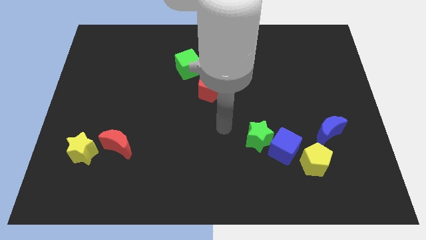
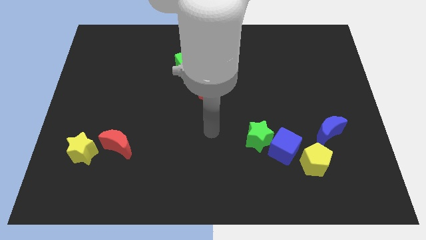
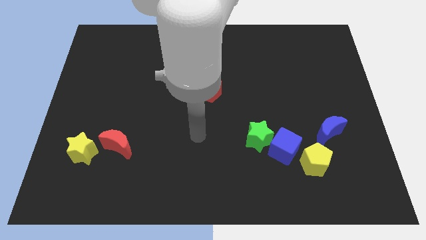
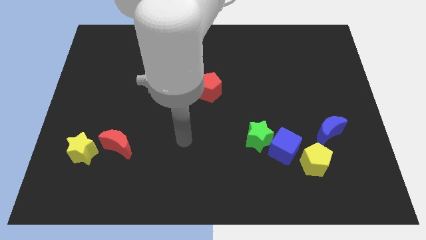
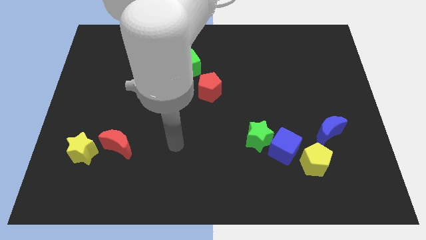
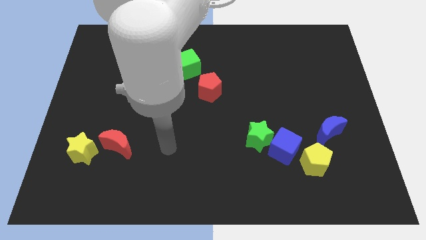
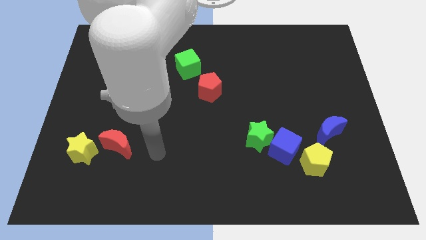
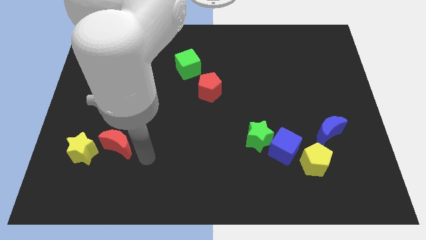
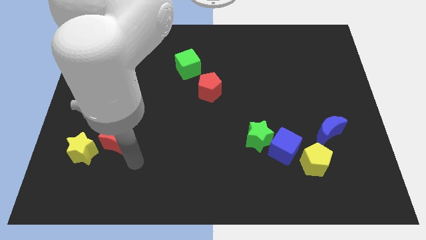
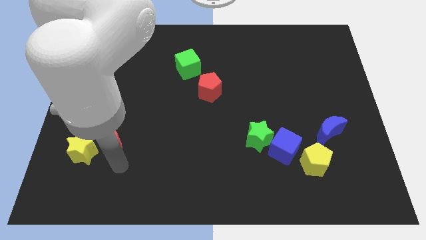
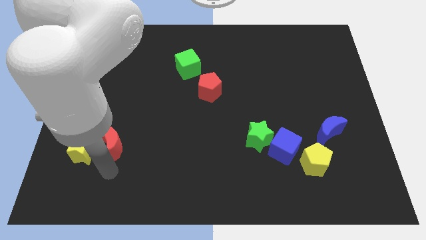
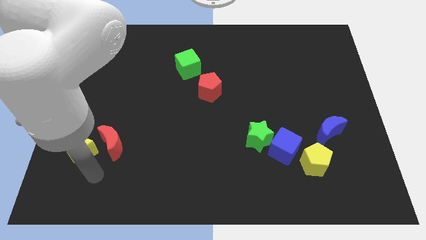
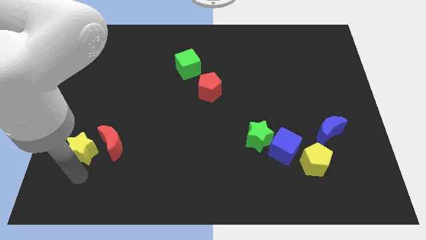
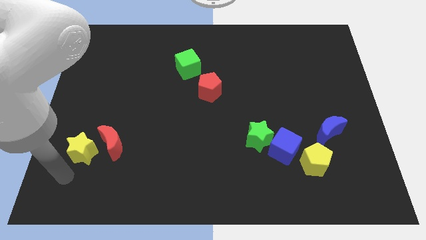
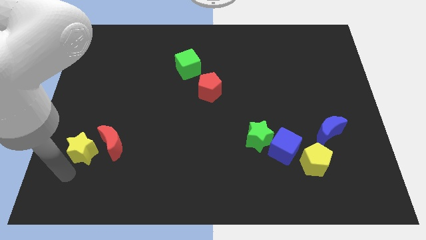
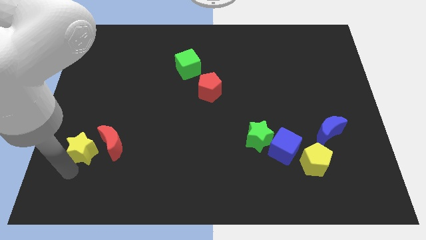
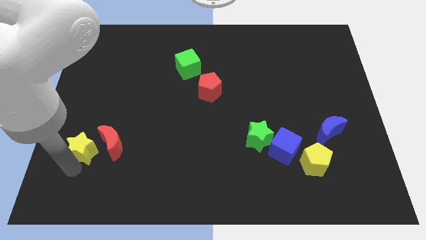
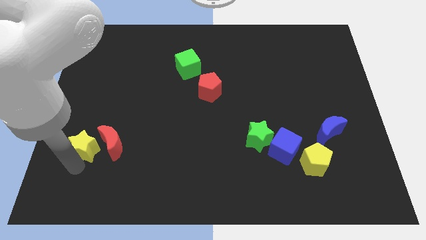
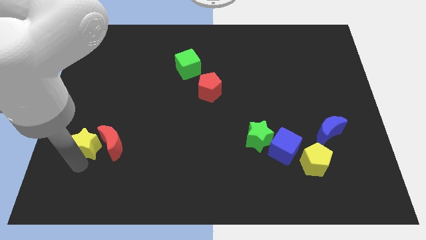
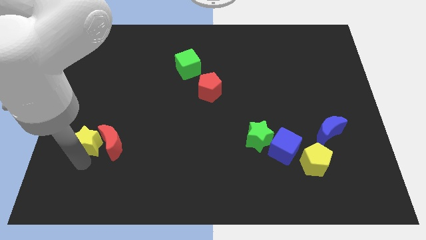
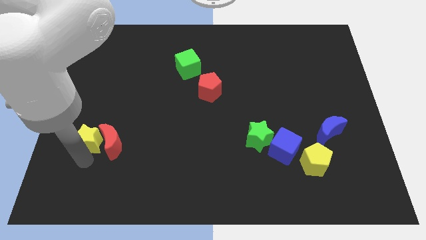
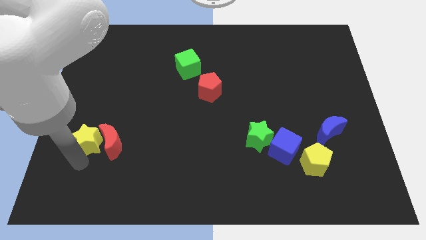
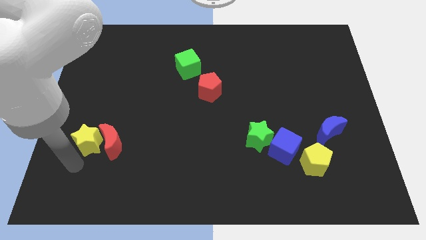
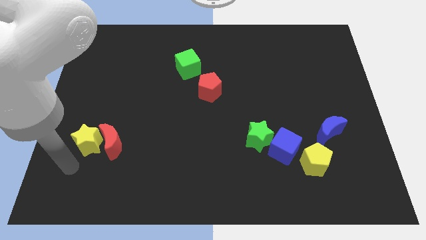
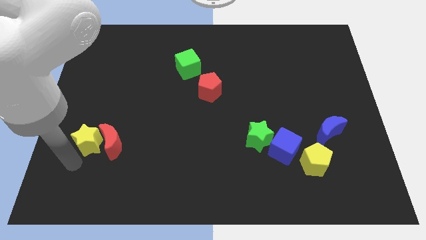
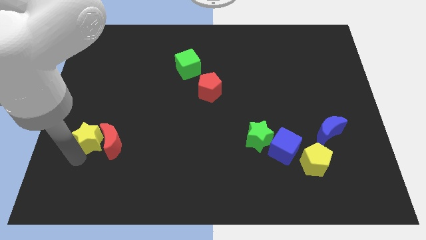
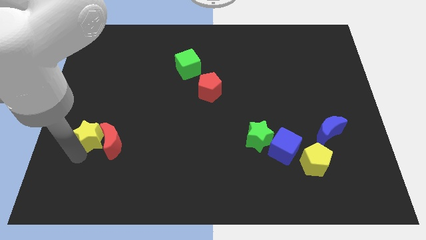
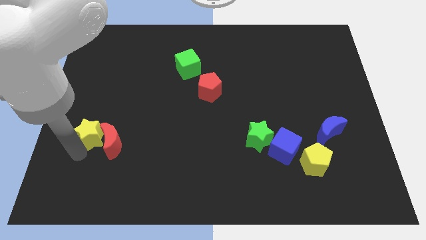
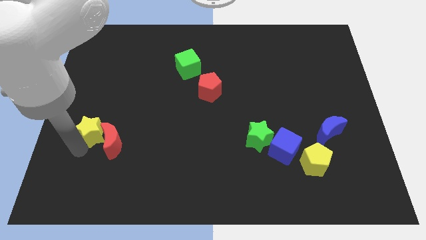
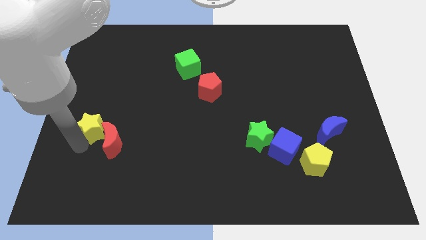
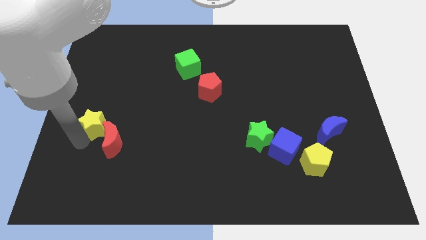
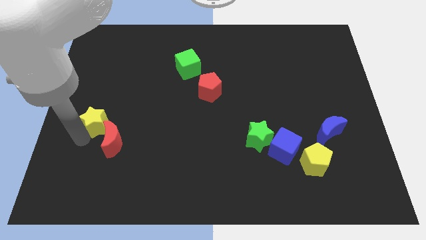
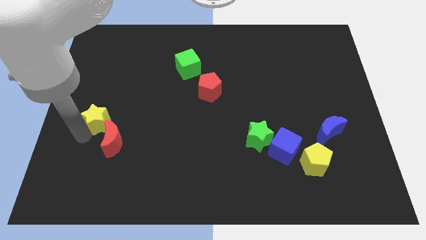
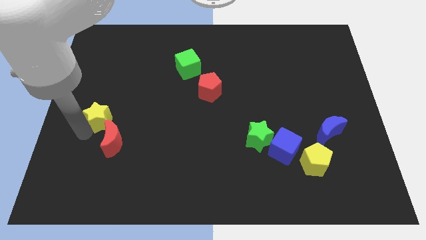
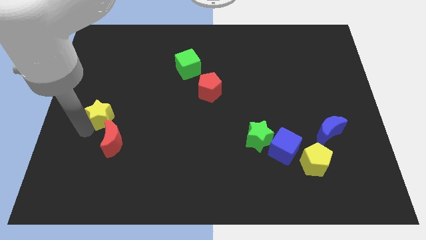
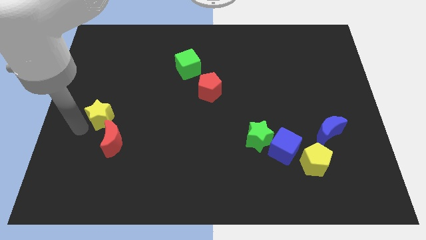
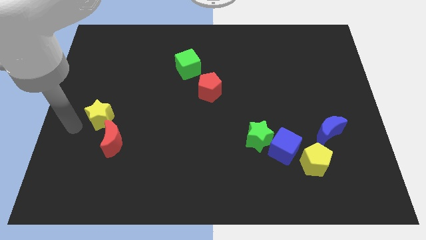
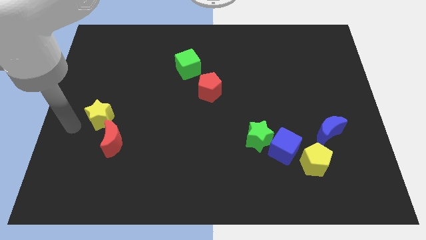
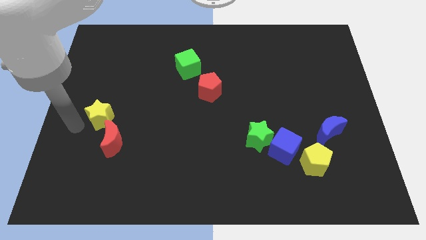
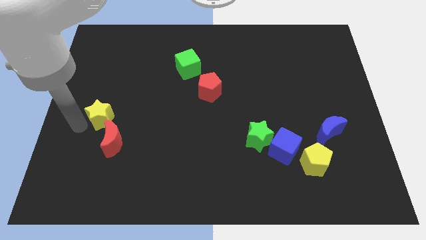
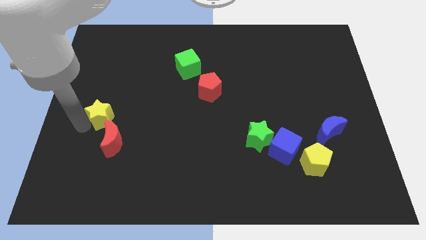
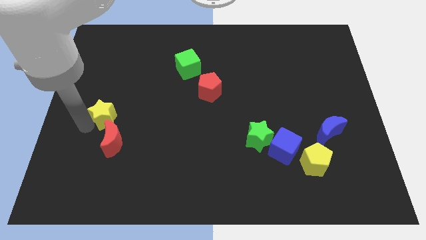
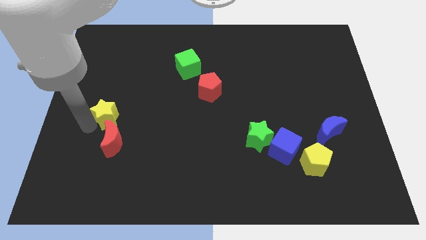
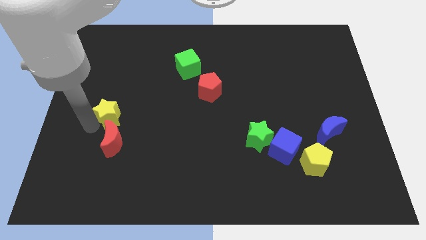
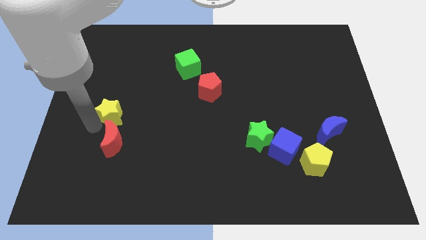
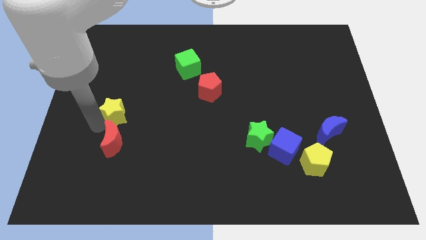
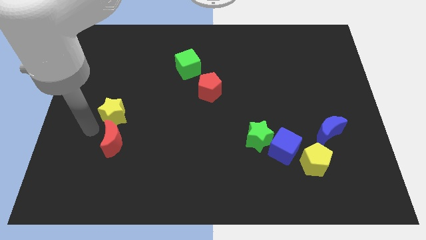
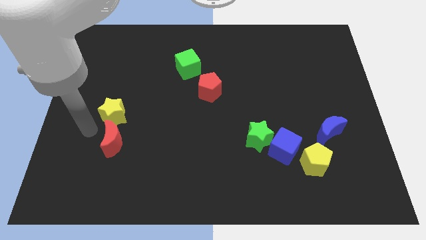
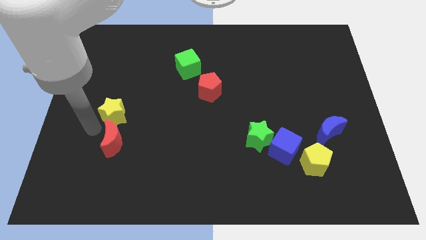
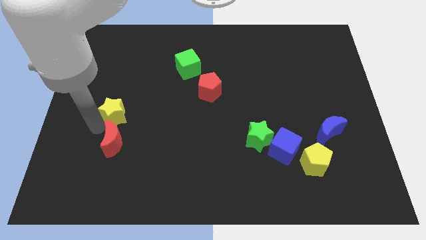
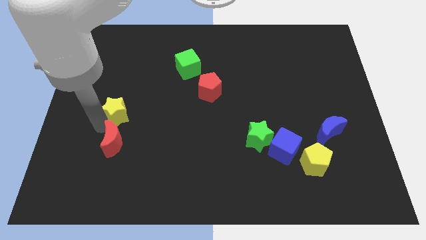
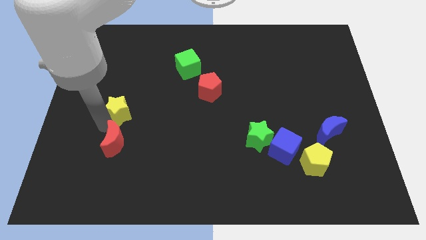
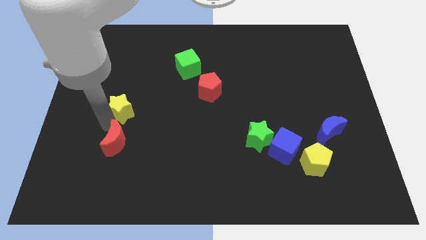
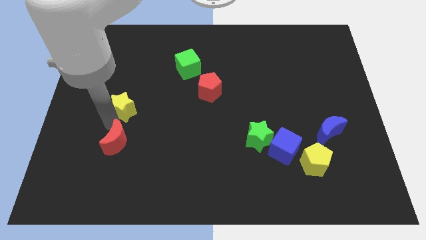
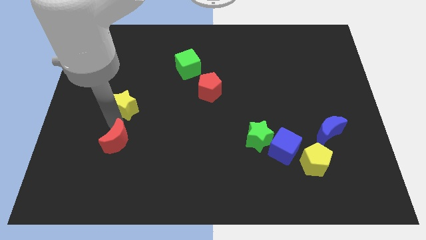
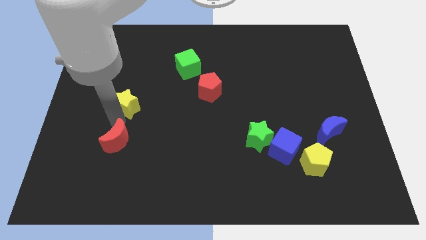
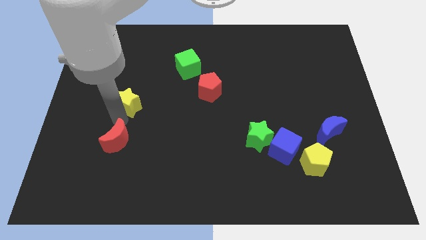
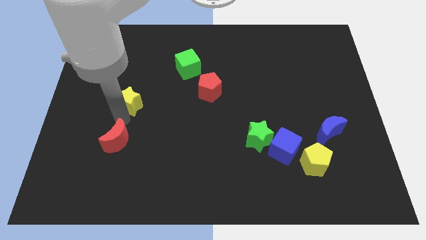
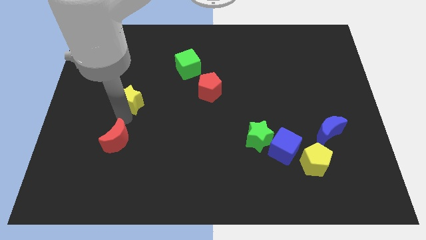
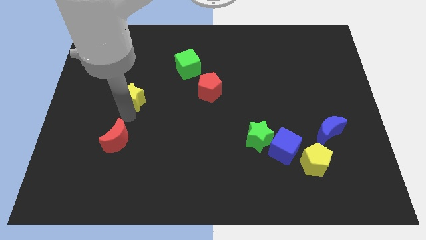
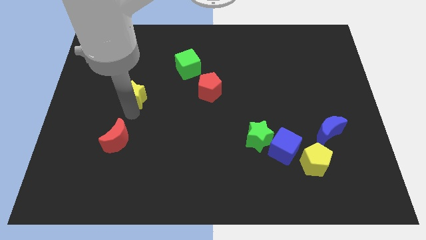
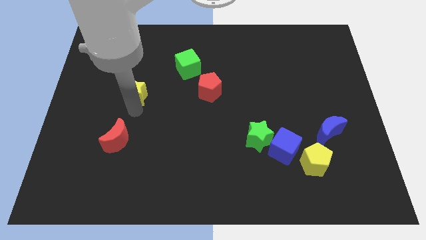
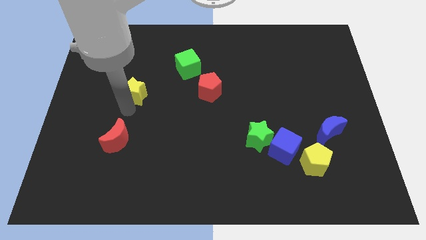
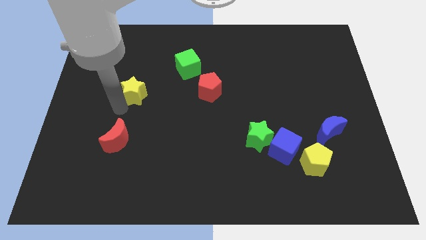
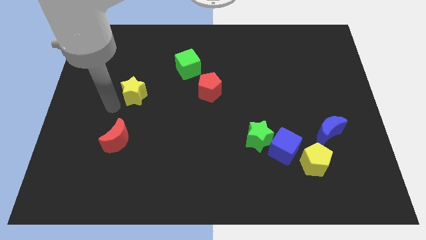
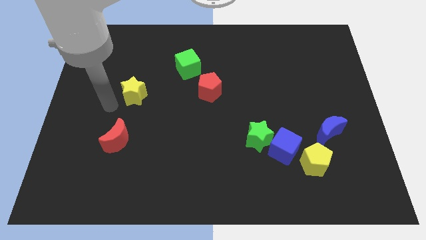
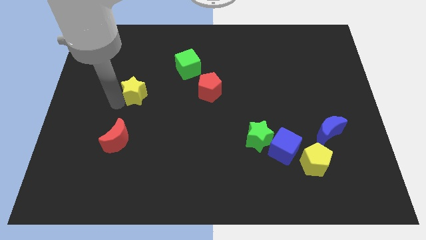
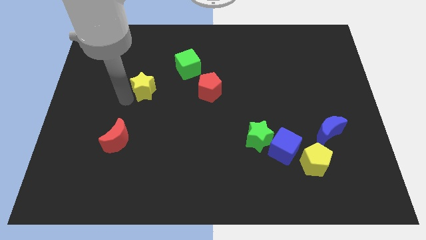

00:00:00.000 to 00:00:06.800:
put the yellow star to the bottom left of the green cube
